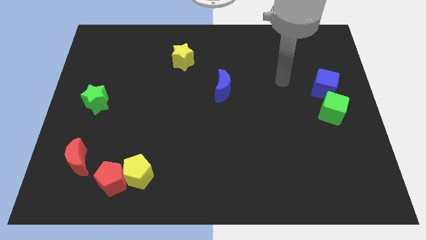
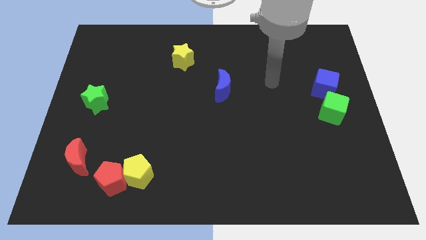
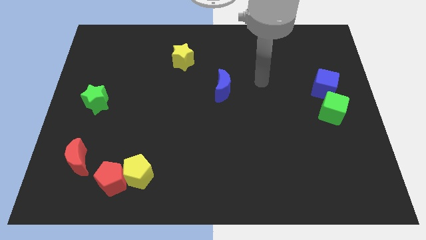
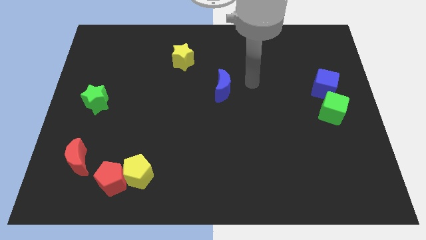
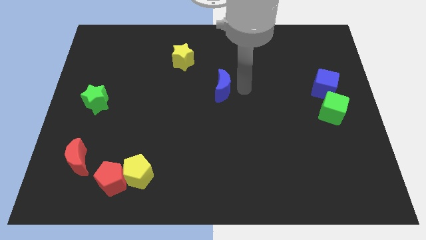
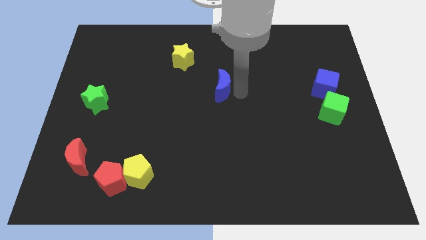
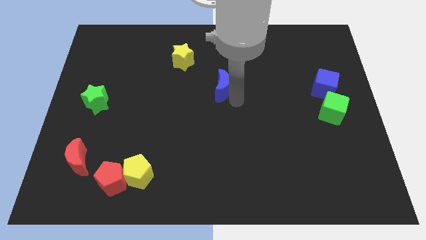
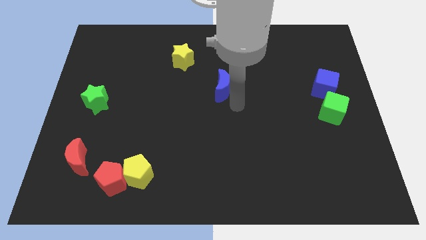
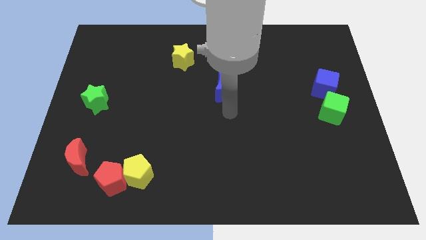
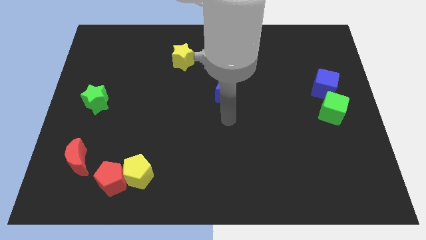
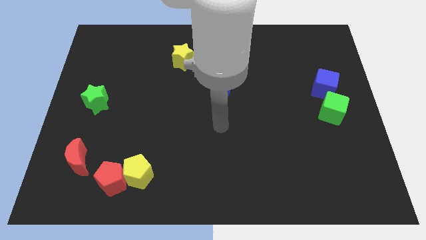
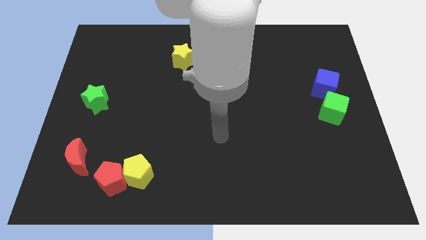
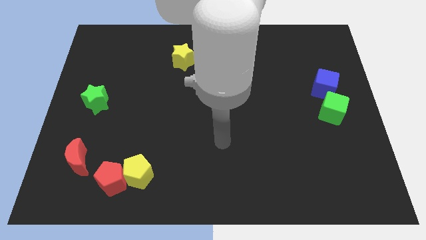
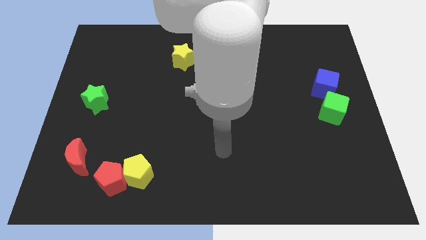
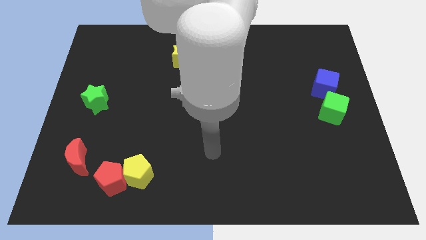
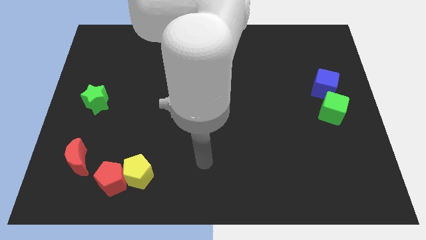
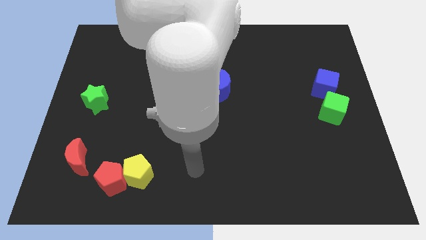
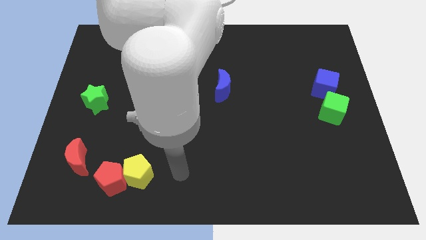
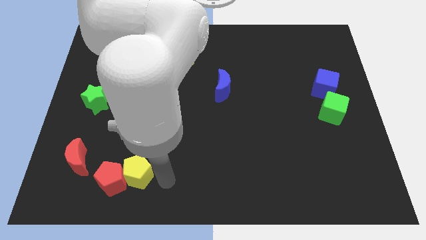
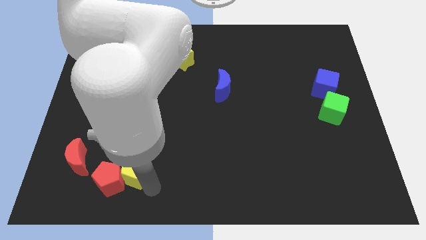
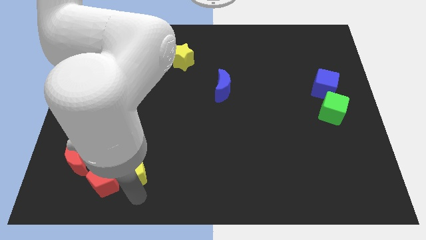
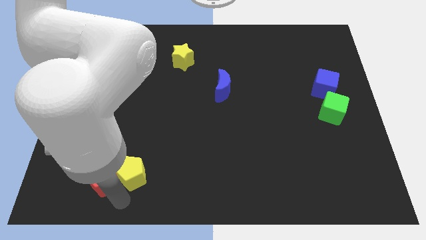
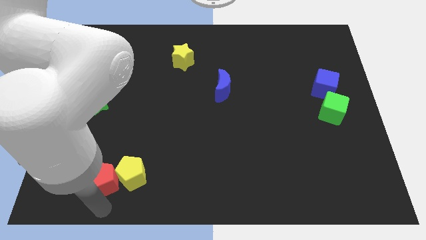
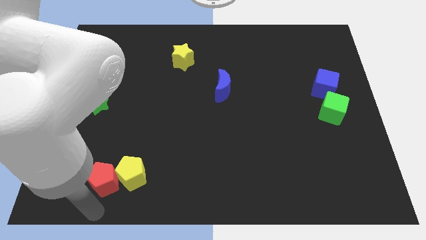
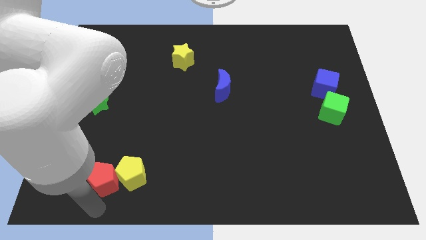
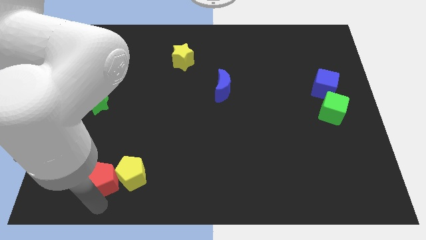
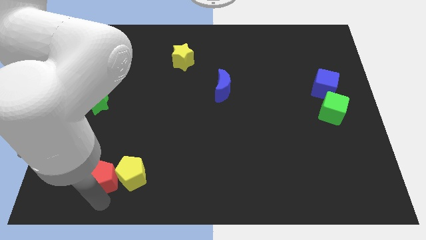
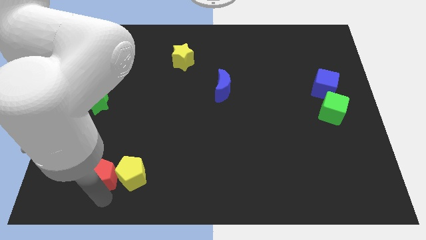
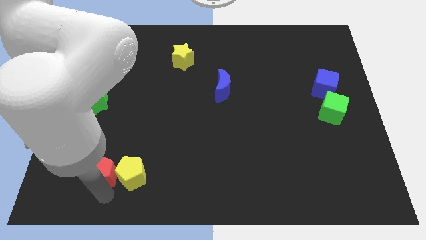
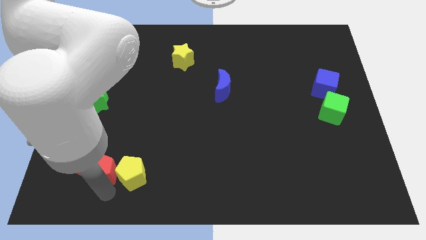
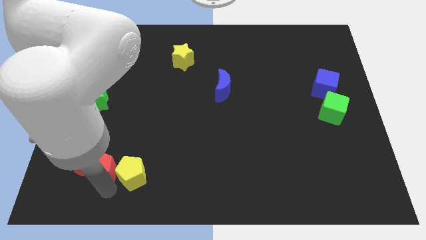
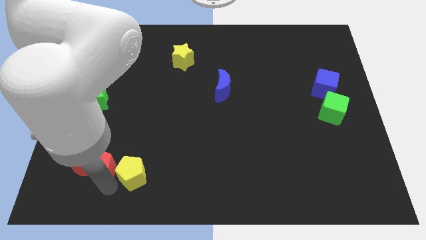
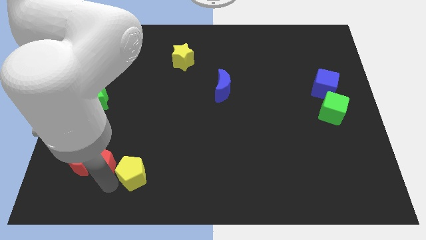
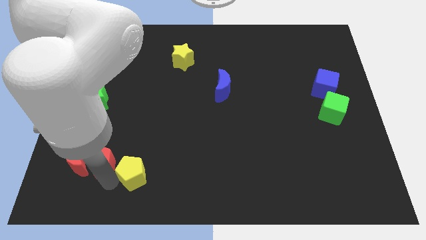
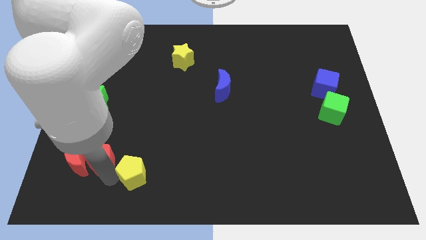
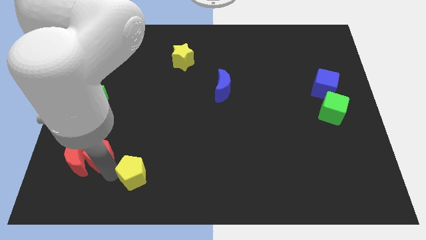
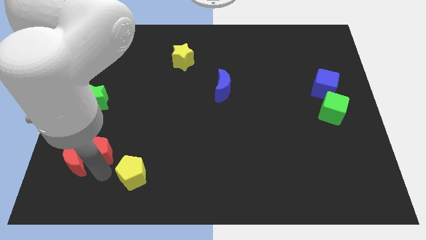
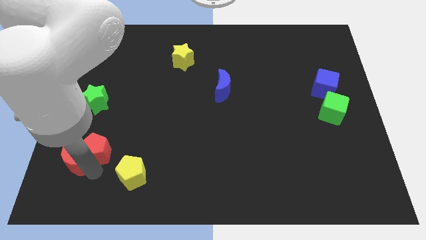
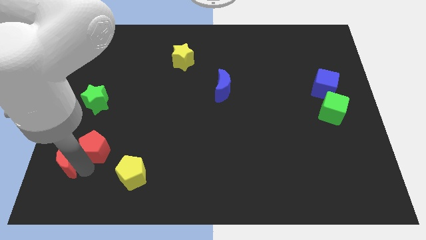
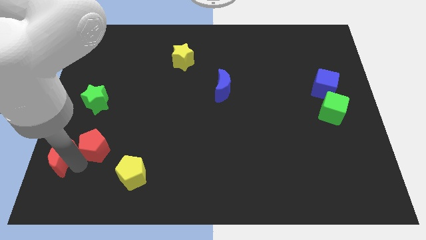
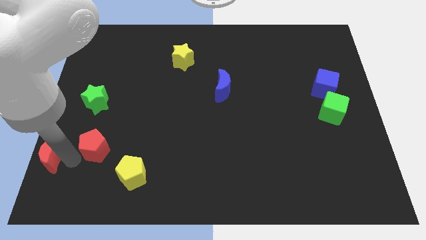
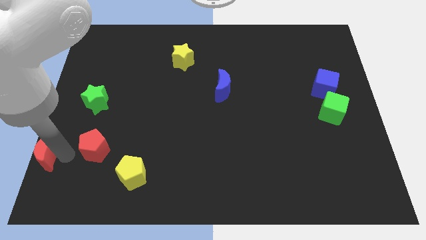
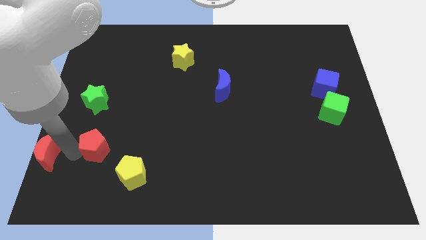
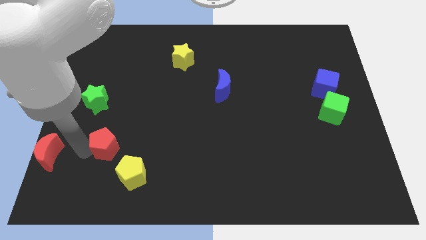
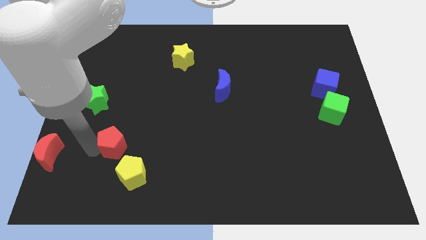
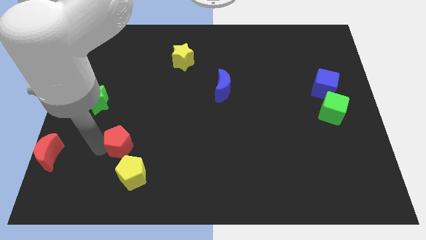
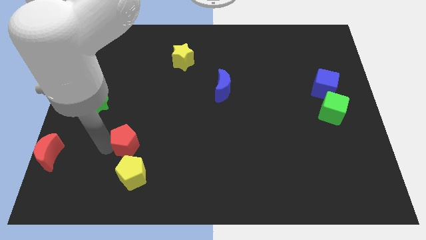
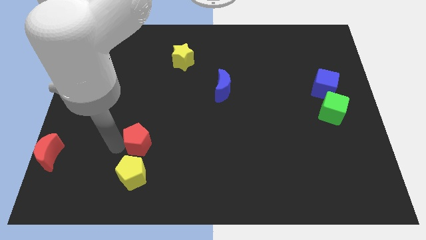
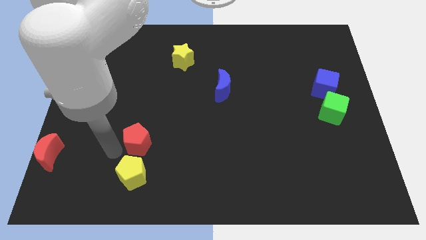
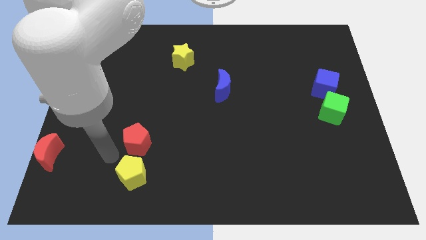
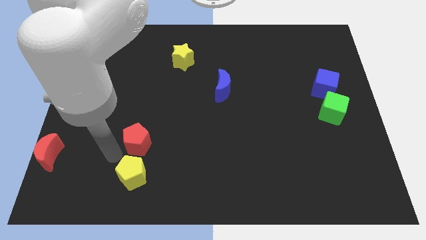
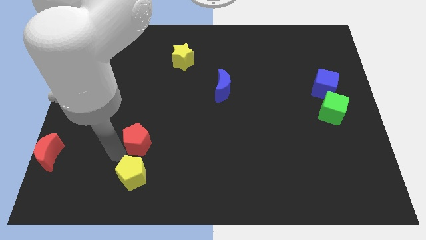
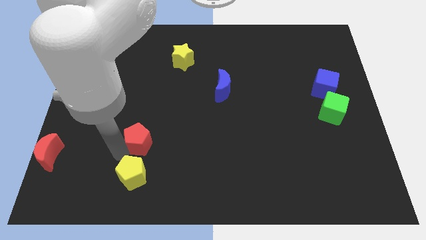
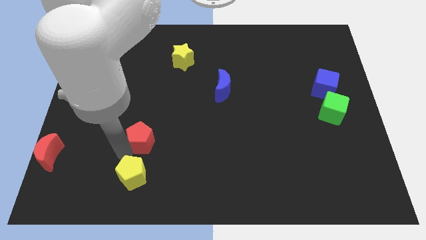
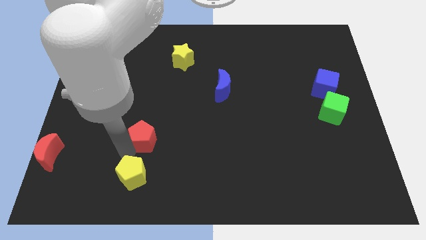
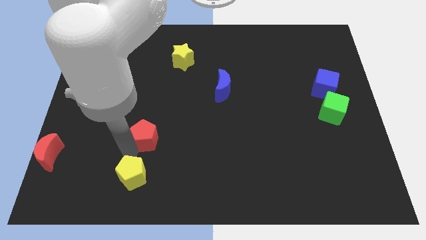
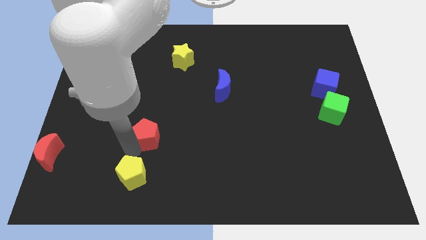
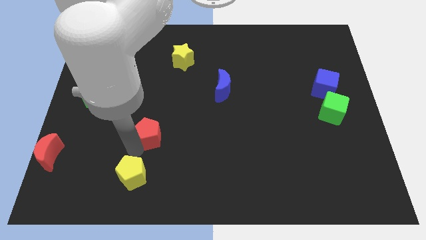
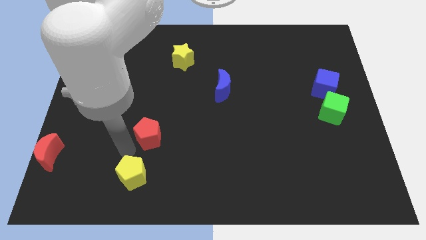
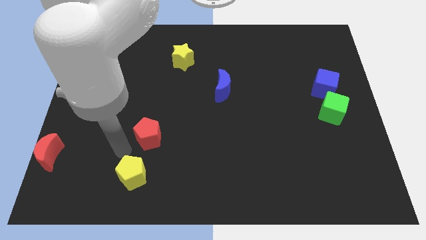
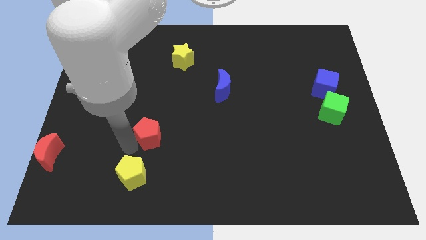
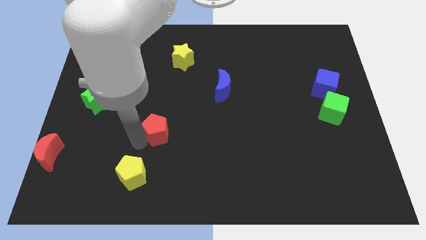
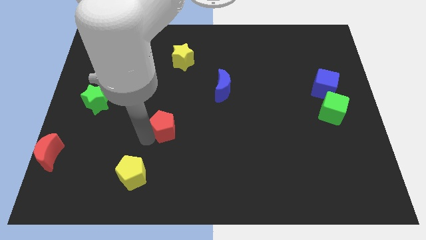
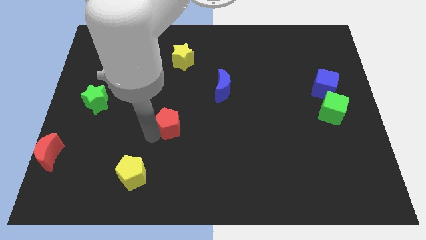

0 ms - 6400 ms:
put the red pentagon to the center
